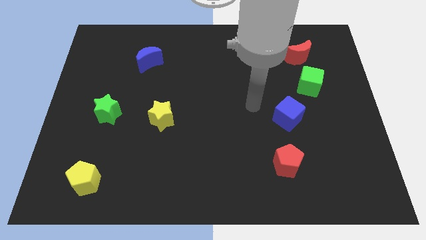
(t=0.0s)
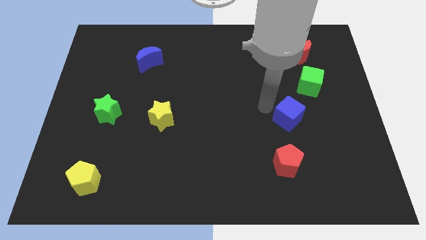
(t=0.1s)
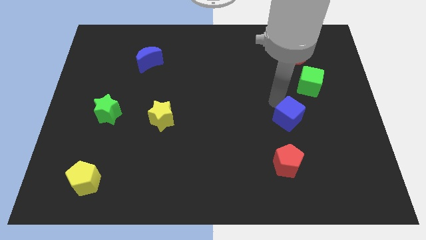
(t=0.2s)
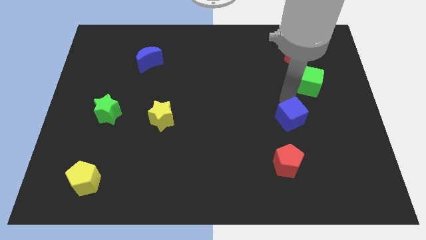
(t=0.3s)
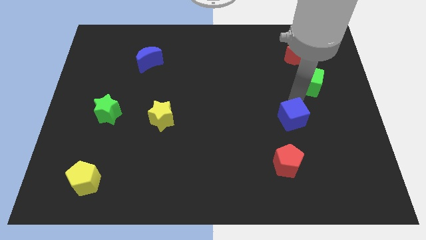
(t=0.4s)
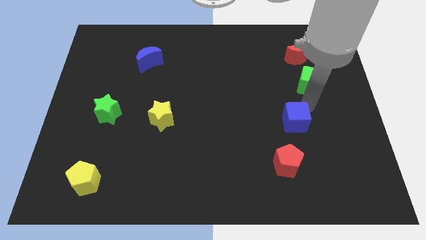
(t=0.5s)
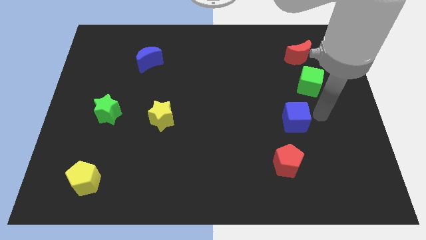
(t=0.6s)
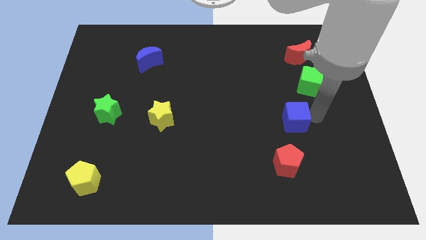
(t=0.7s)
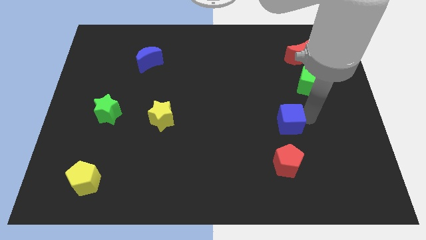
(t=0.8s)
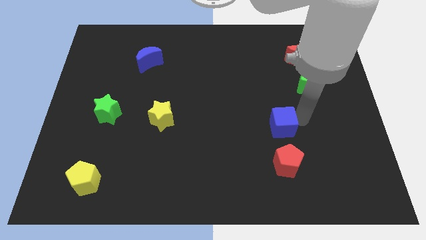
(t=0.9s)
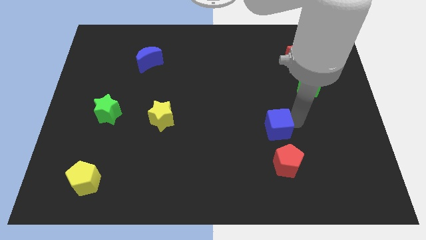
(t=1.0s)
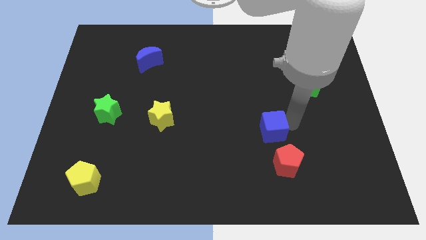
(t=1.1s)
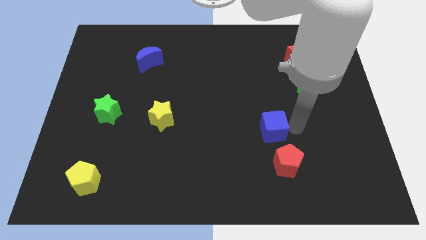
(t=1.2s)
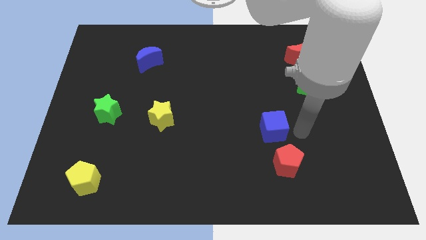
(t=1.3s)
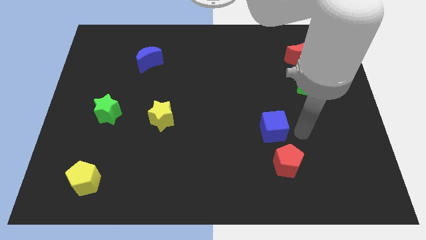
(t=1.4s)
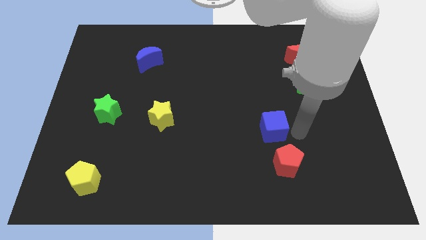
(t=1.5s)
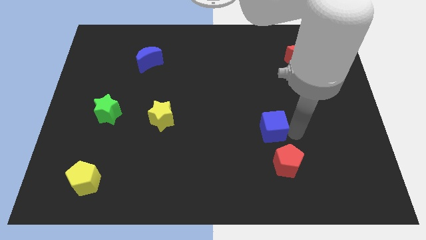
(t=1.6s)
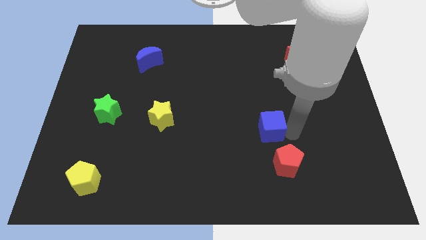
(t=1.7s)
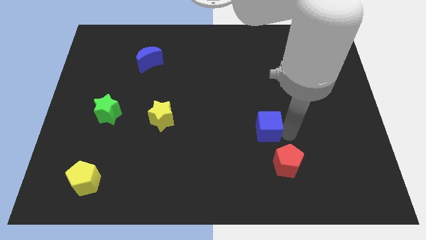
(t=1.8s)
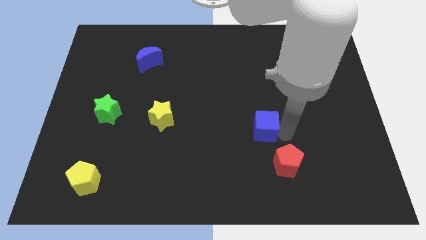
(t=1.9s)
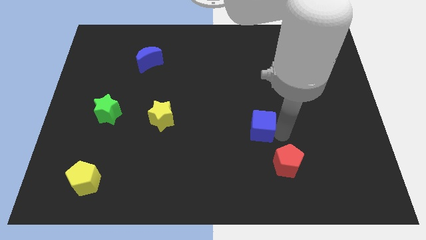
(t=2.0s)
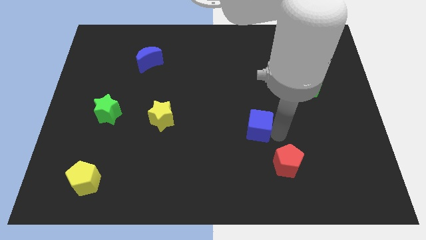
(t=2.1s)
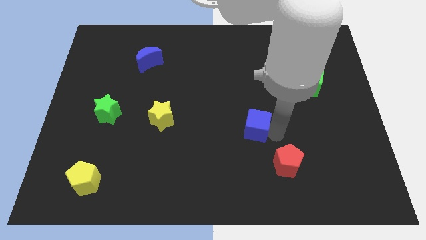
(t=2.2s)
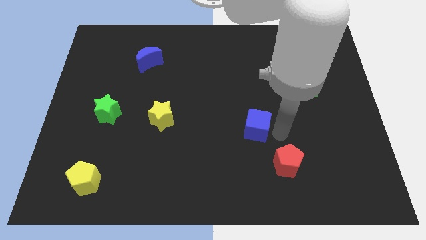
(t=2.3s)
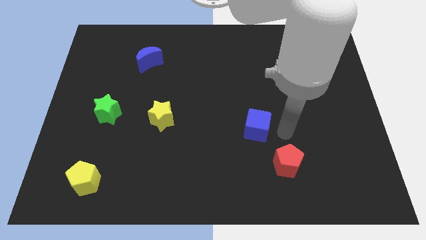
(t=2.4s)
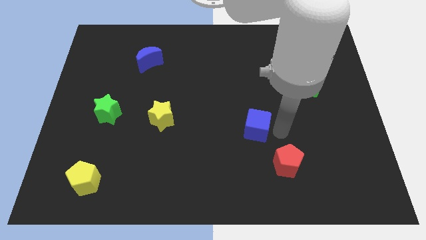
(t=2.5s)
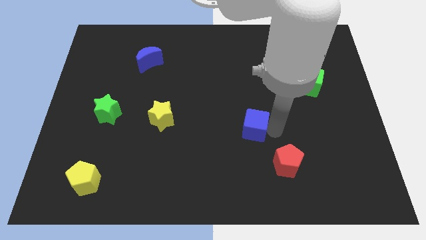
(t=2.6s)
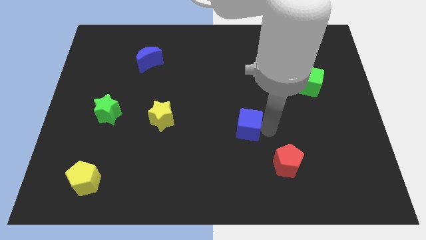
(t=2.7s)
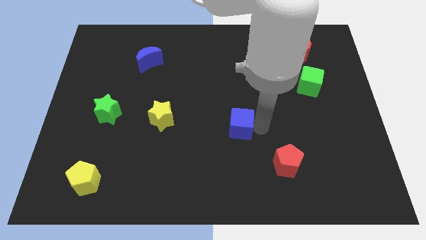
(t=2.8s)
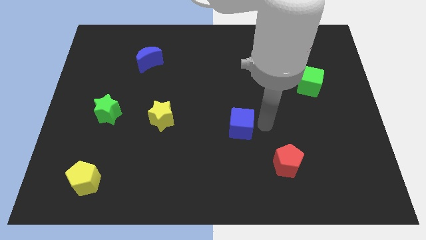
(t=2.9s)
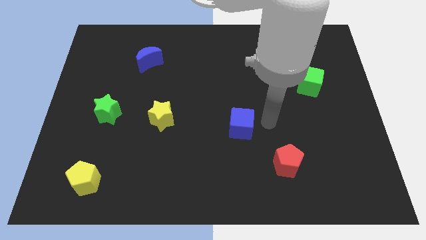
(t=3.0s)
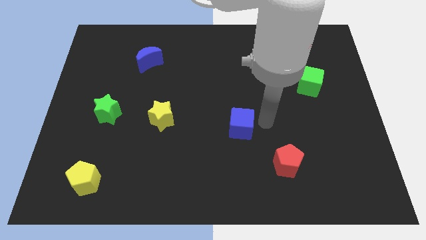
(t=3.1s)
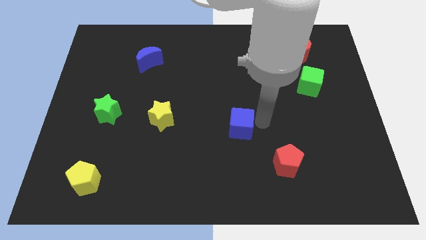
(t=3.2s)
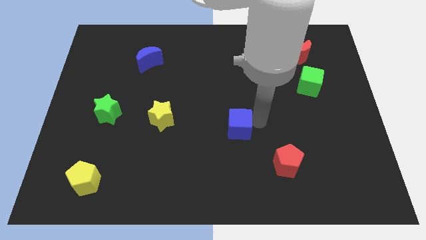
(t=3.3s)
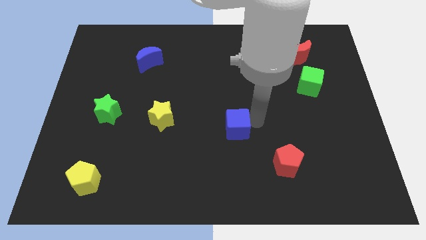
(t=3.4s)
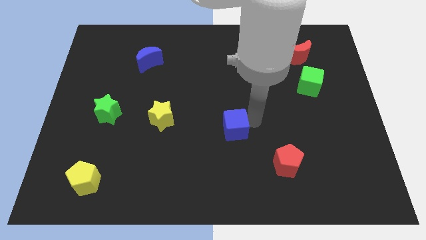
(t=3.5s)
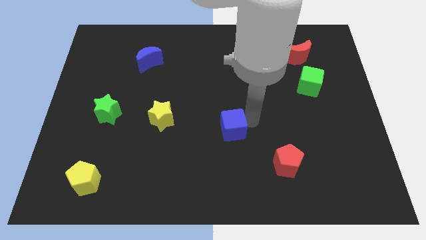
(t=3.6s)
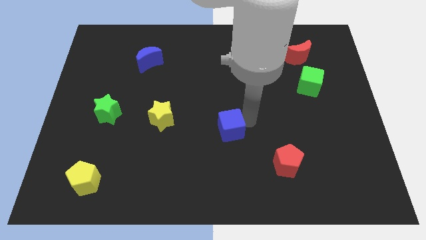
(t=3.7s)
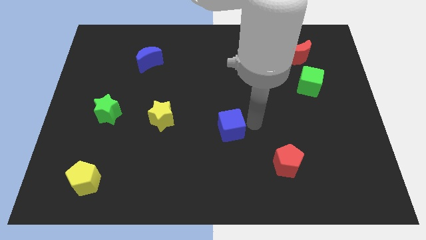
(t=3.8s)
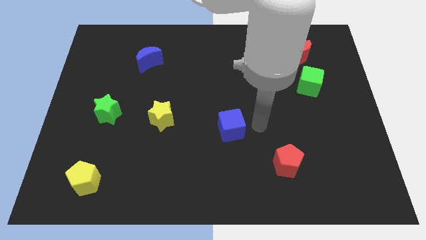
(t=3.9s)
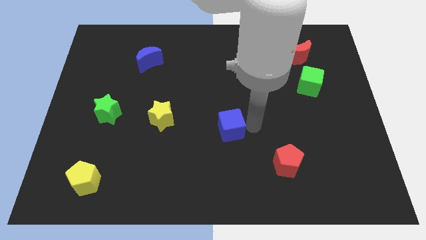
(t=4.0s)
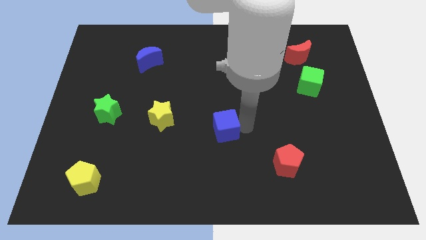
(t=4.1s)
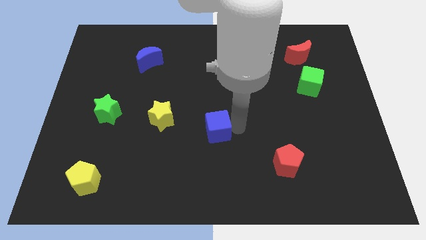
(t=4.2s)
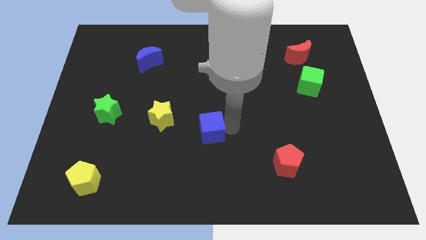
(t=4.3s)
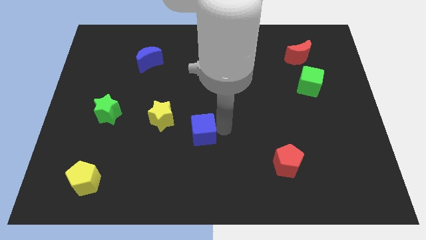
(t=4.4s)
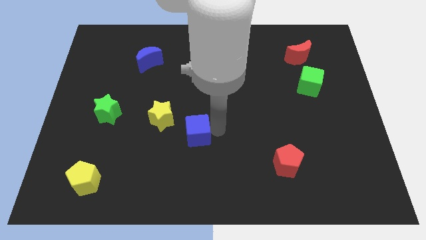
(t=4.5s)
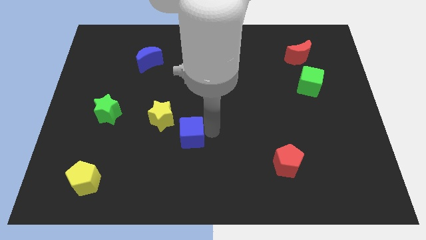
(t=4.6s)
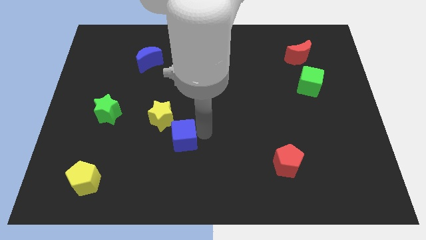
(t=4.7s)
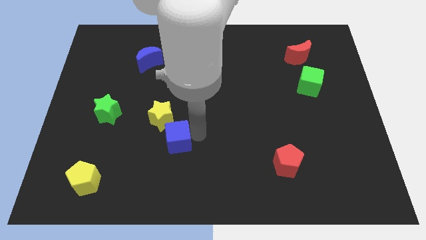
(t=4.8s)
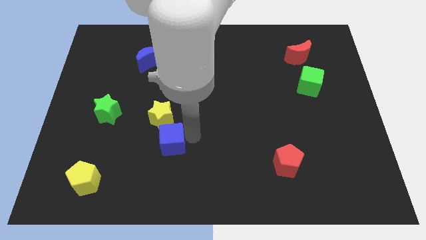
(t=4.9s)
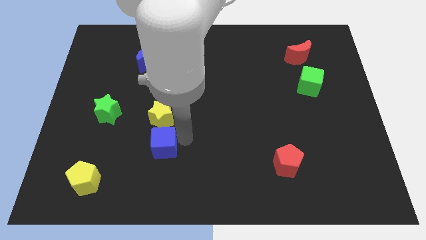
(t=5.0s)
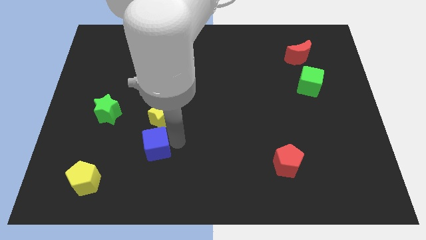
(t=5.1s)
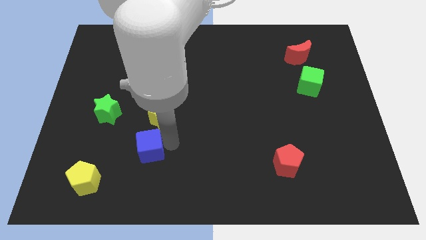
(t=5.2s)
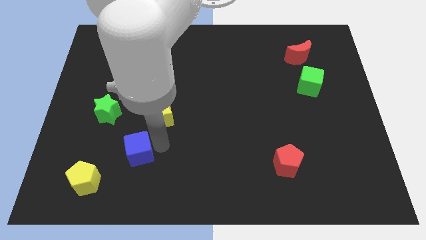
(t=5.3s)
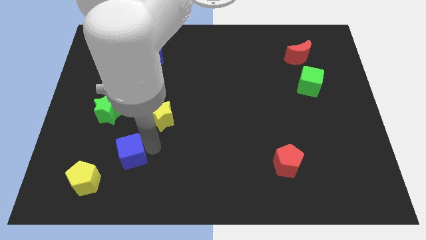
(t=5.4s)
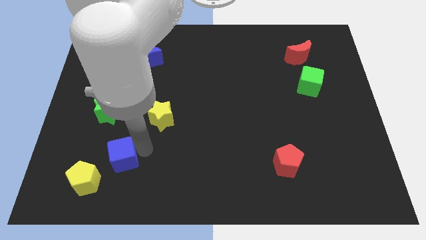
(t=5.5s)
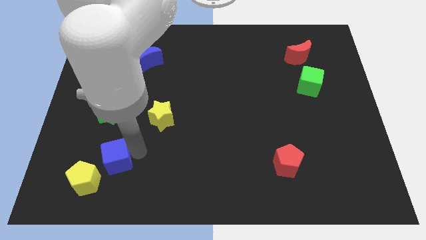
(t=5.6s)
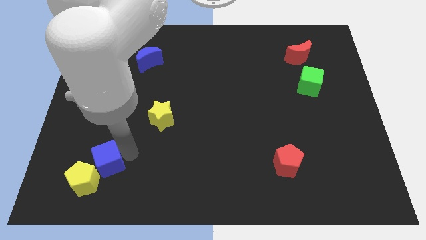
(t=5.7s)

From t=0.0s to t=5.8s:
push the blue cube close to the yellow pentagon

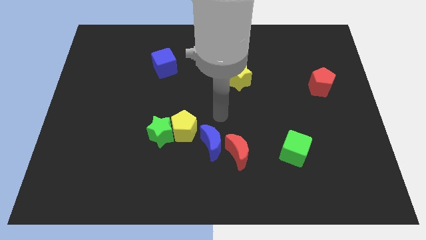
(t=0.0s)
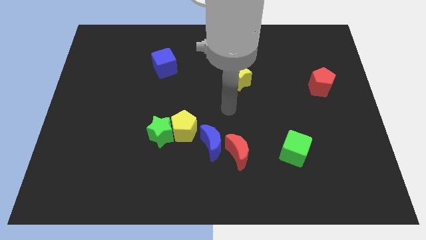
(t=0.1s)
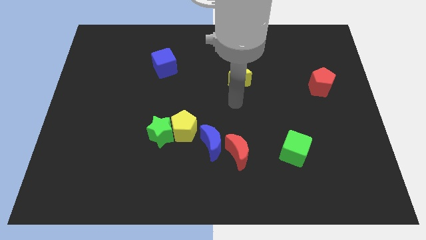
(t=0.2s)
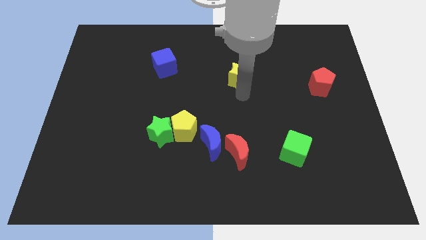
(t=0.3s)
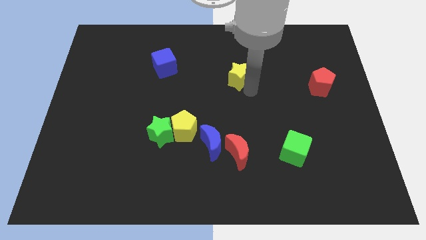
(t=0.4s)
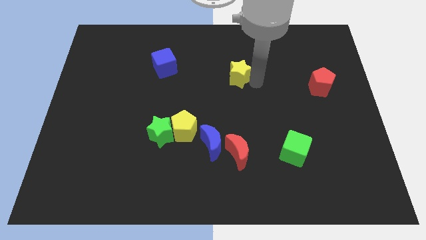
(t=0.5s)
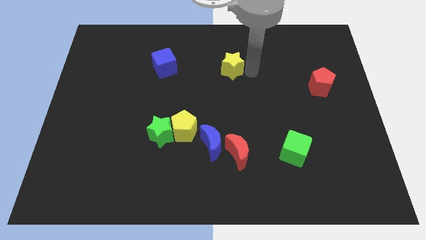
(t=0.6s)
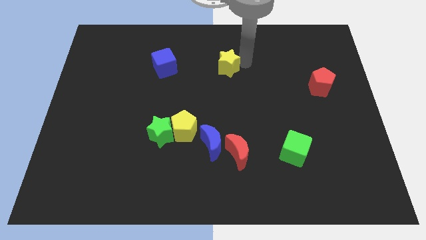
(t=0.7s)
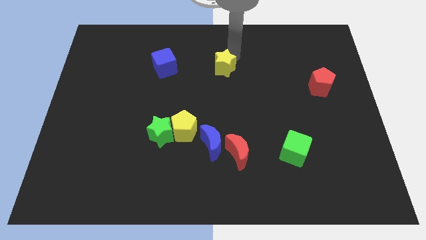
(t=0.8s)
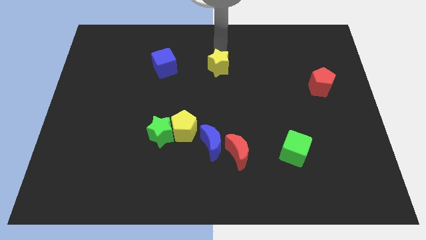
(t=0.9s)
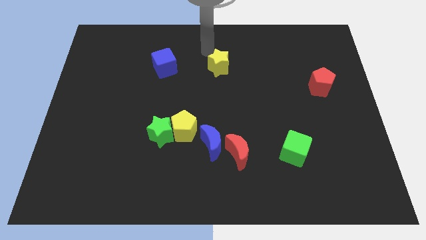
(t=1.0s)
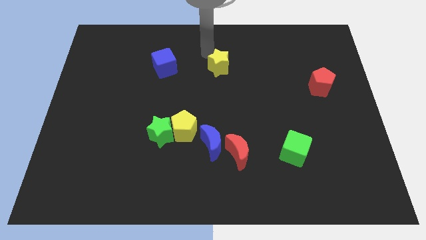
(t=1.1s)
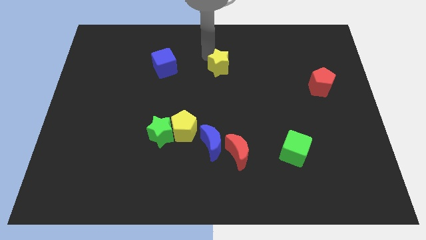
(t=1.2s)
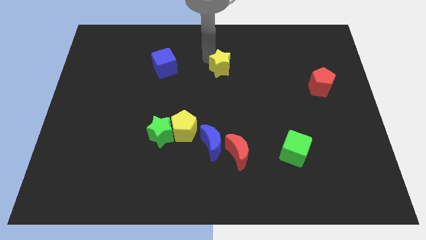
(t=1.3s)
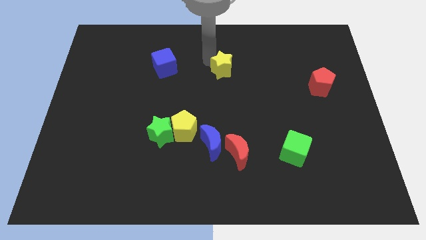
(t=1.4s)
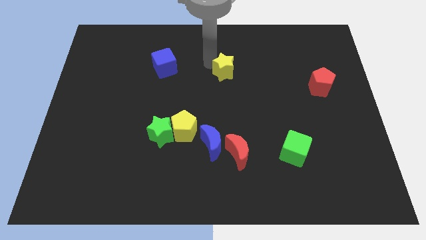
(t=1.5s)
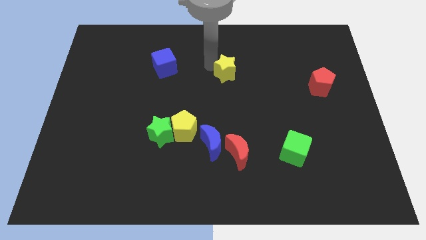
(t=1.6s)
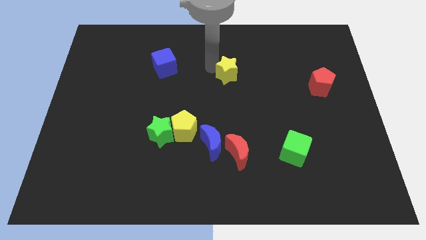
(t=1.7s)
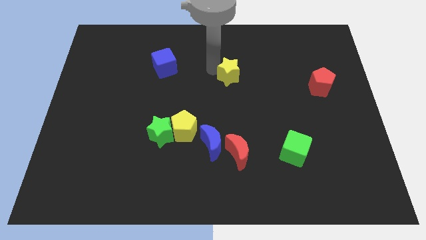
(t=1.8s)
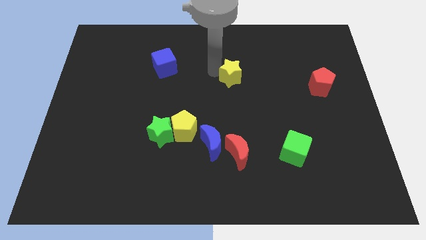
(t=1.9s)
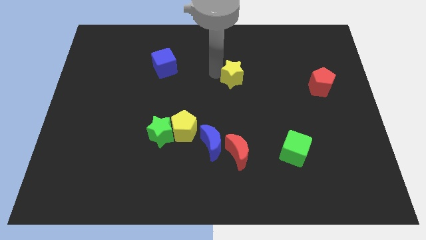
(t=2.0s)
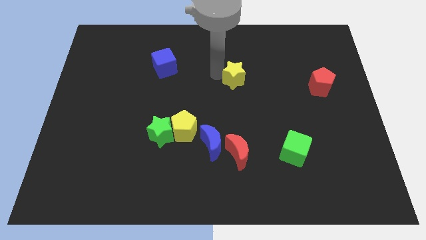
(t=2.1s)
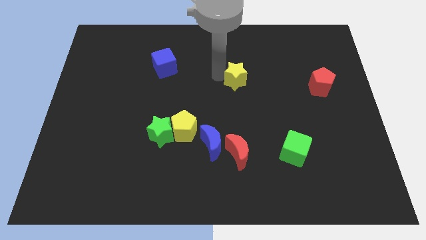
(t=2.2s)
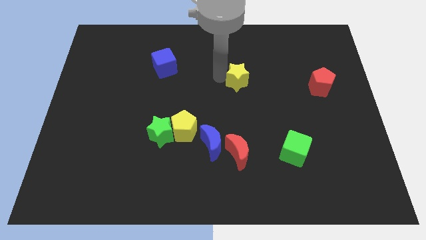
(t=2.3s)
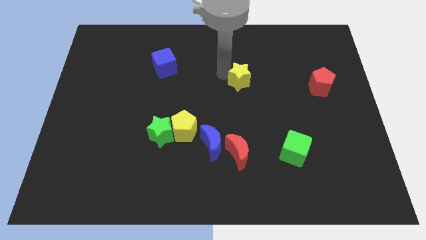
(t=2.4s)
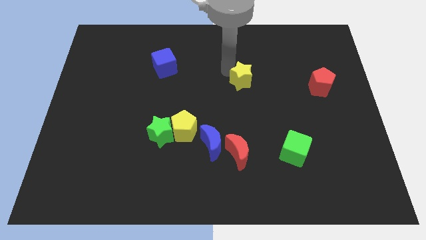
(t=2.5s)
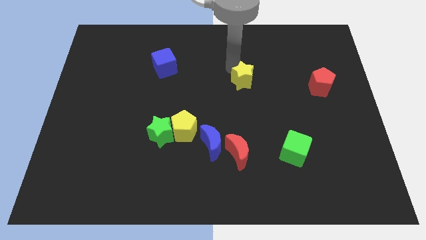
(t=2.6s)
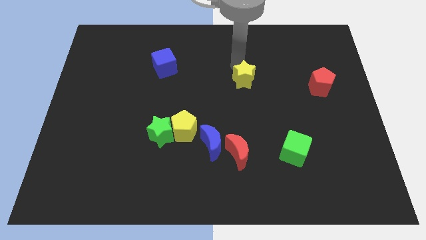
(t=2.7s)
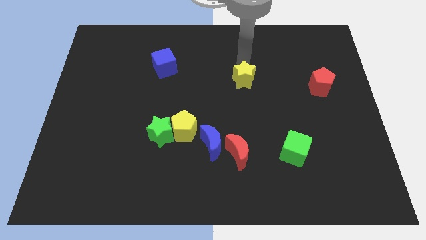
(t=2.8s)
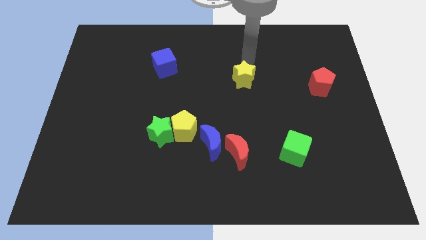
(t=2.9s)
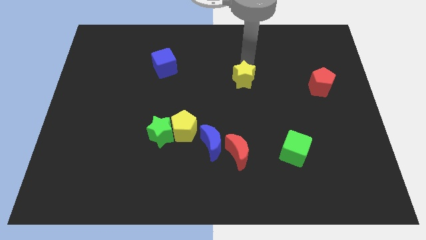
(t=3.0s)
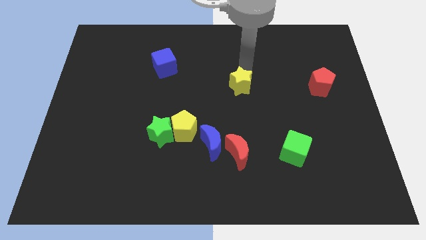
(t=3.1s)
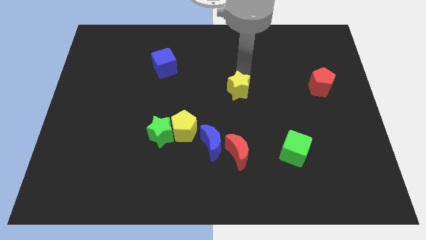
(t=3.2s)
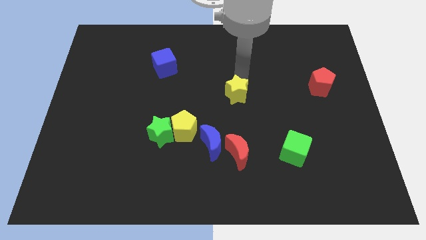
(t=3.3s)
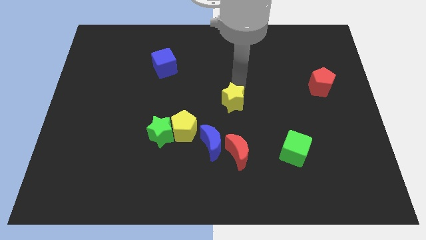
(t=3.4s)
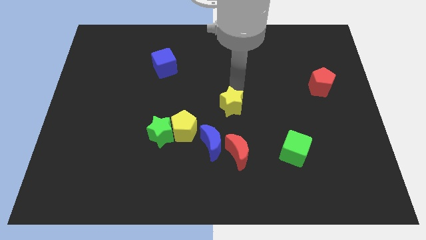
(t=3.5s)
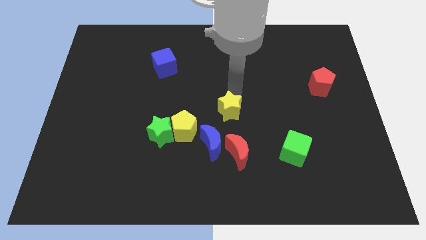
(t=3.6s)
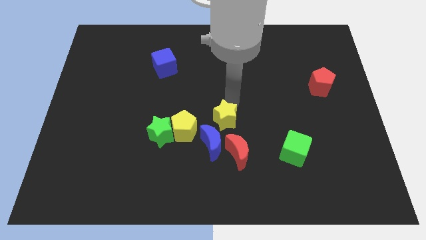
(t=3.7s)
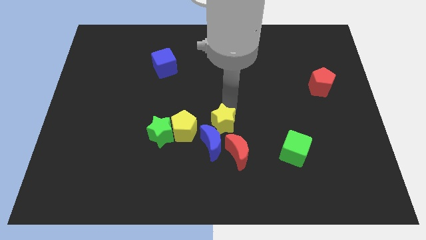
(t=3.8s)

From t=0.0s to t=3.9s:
slide the yellow star to the blue moon
